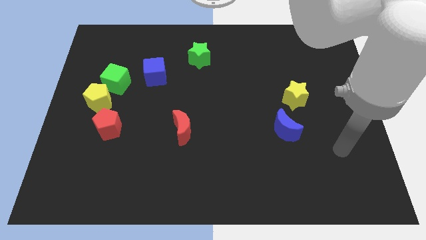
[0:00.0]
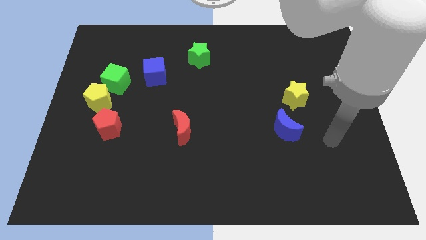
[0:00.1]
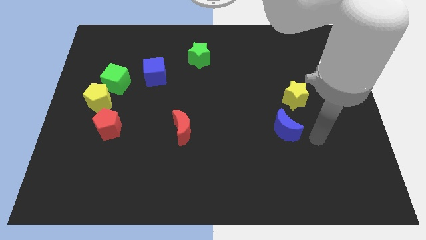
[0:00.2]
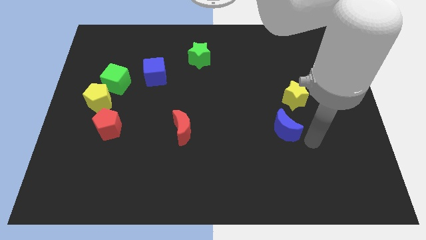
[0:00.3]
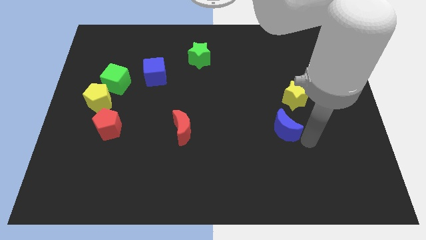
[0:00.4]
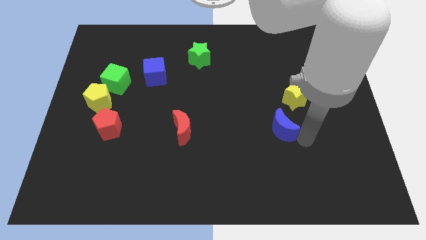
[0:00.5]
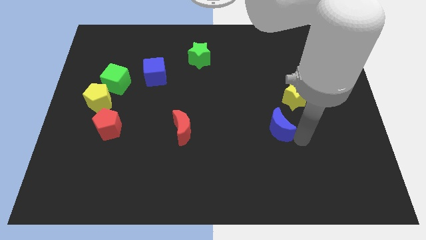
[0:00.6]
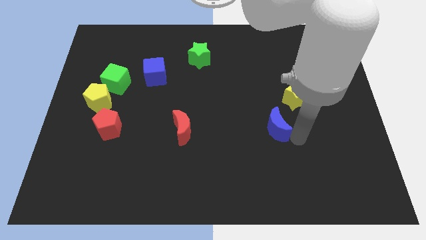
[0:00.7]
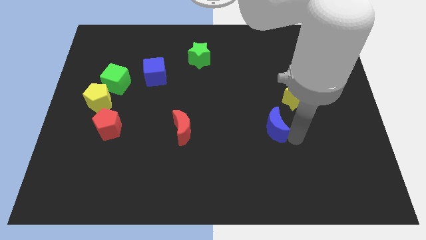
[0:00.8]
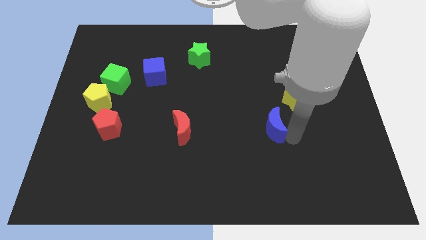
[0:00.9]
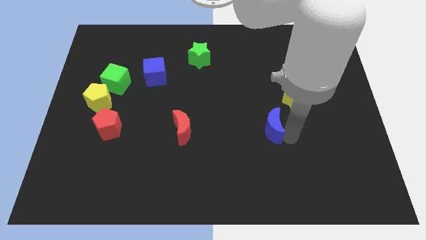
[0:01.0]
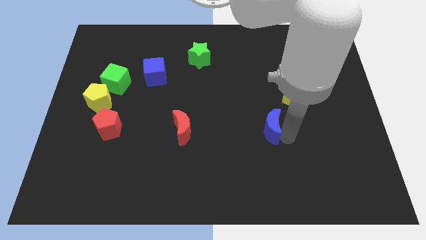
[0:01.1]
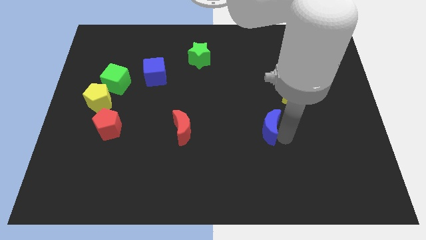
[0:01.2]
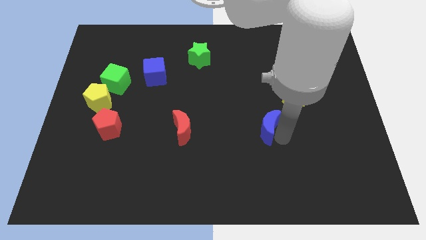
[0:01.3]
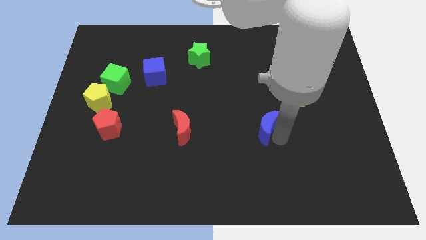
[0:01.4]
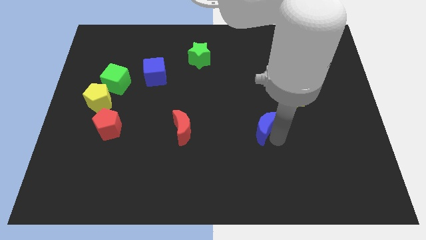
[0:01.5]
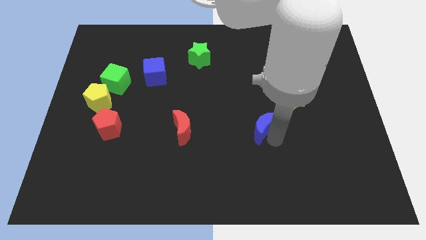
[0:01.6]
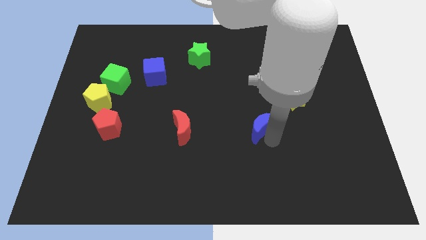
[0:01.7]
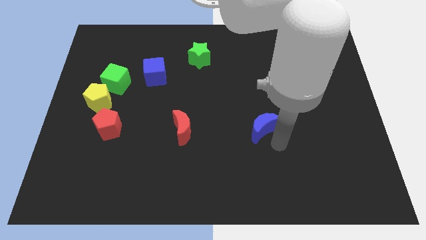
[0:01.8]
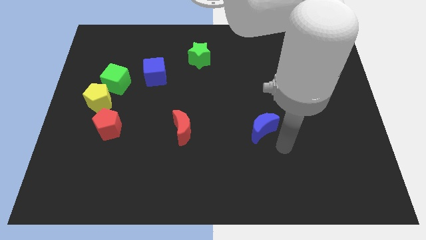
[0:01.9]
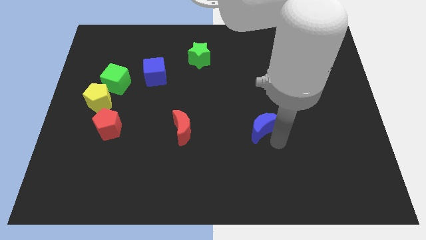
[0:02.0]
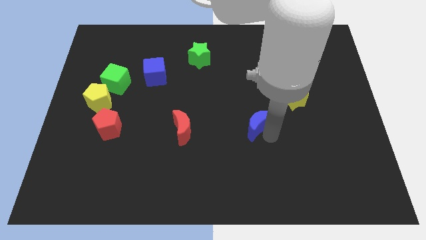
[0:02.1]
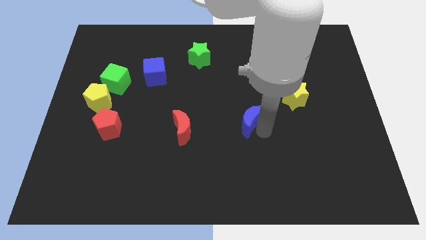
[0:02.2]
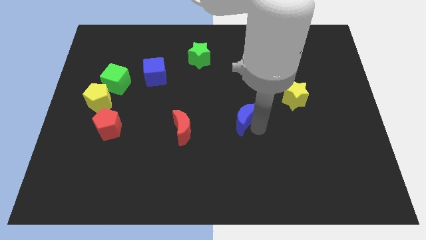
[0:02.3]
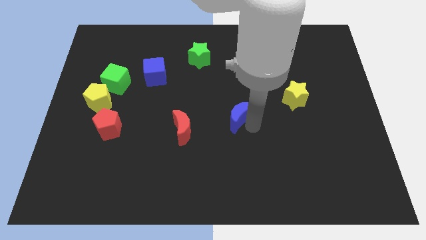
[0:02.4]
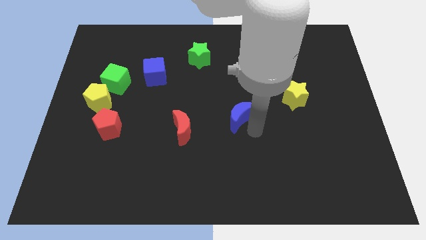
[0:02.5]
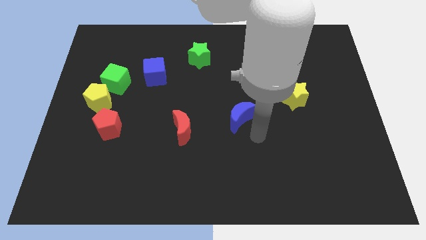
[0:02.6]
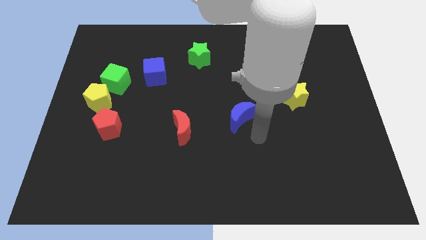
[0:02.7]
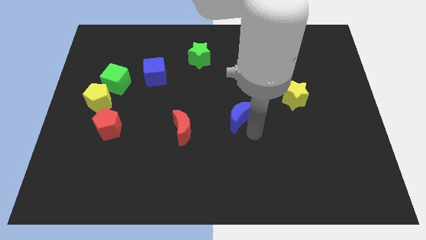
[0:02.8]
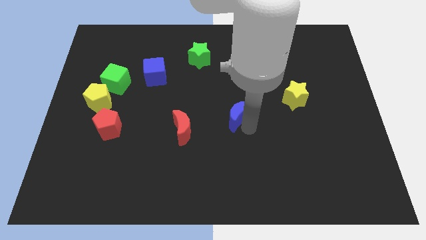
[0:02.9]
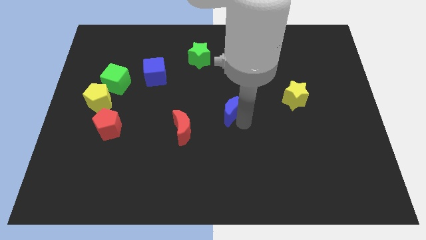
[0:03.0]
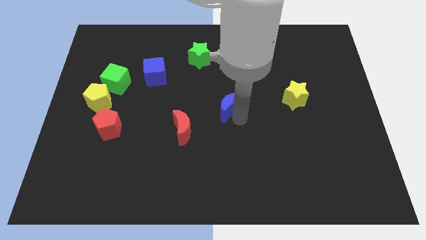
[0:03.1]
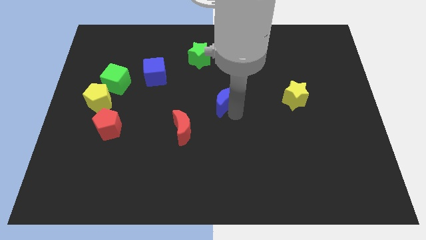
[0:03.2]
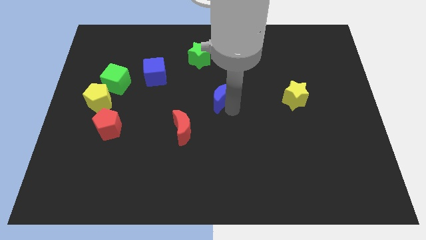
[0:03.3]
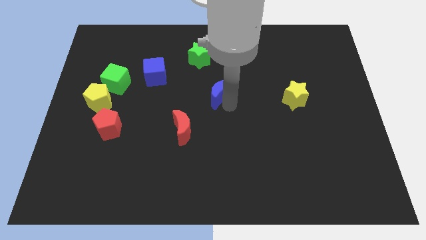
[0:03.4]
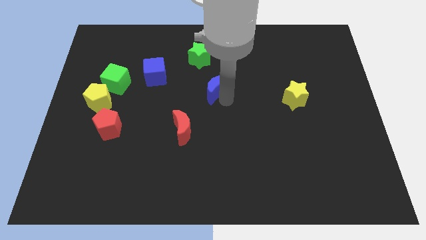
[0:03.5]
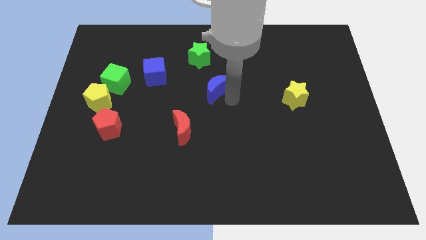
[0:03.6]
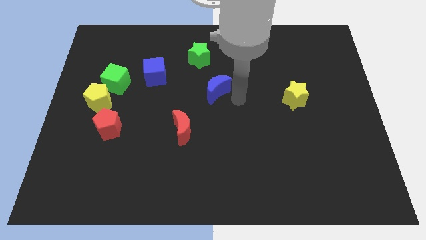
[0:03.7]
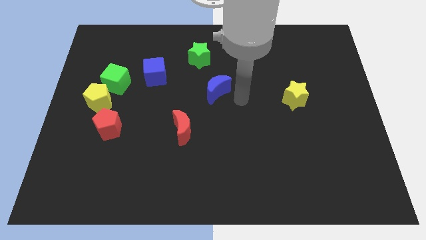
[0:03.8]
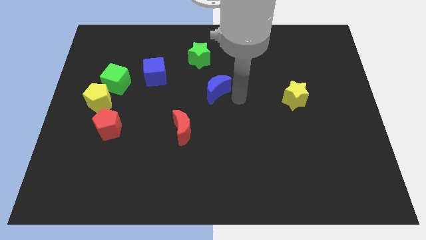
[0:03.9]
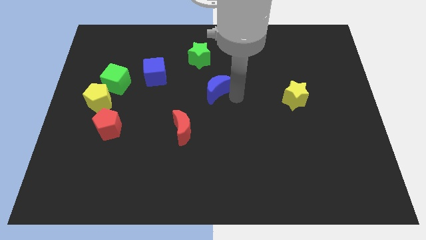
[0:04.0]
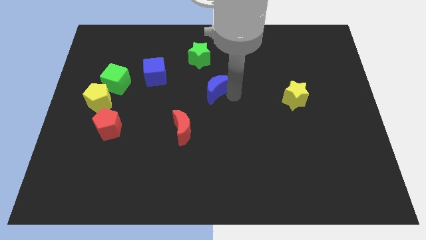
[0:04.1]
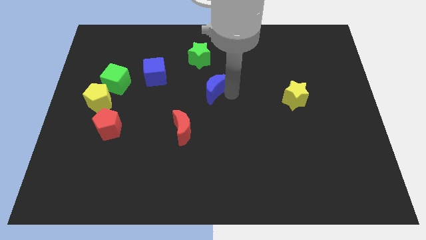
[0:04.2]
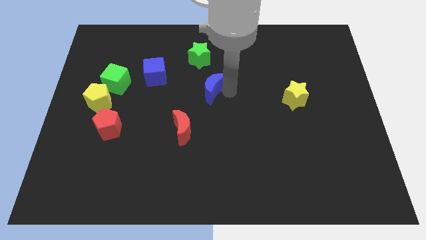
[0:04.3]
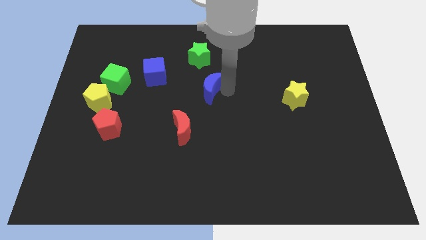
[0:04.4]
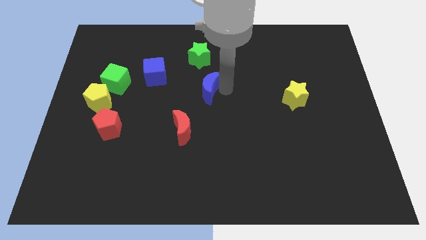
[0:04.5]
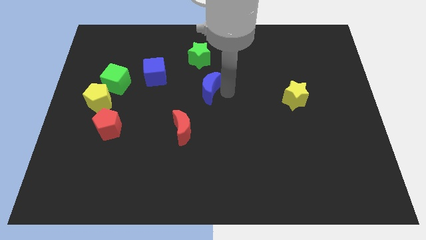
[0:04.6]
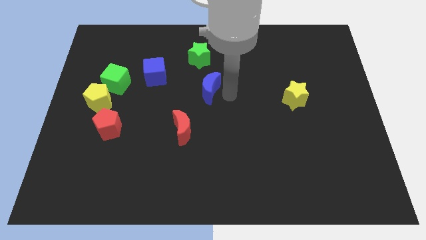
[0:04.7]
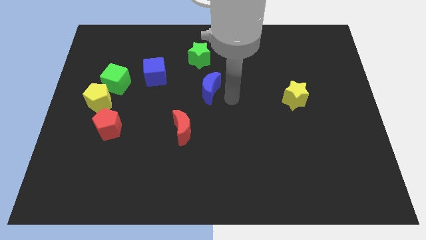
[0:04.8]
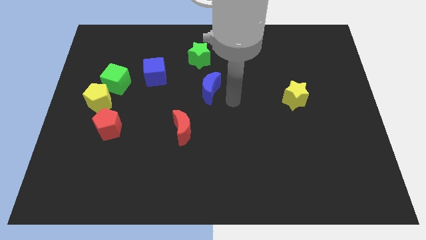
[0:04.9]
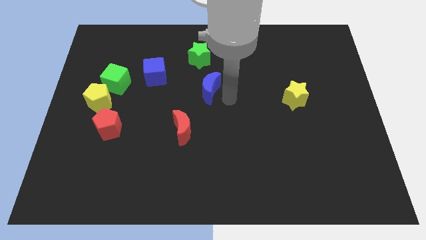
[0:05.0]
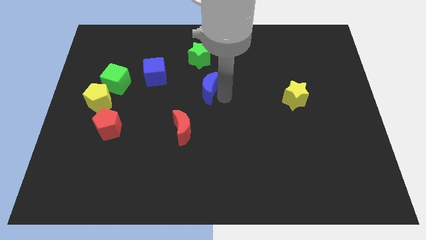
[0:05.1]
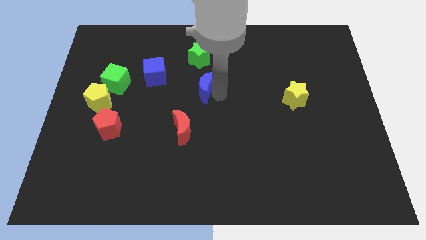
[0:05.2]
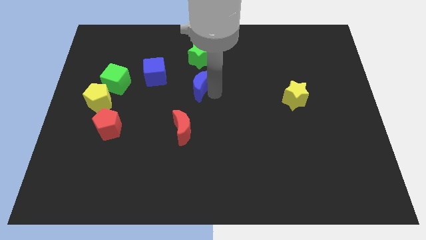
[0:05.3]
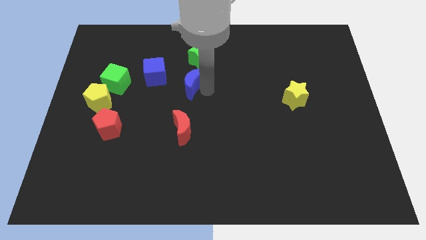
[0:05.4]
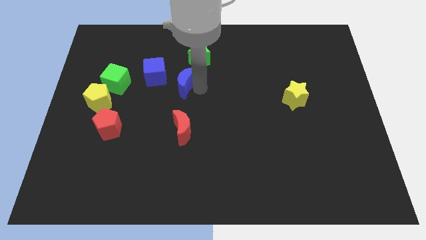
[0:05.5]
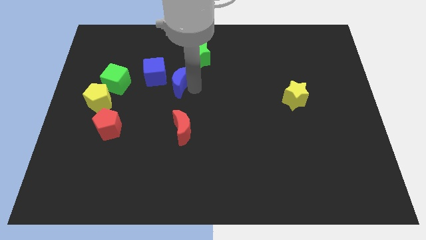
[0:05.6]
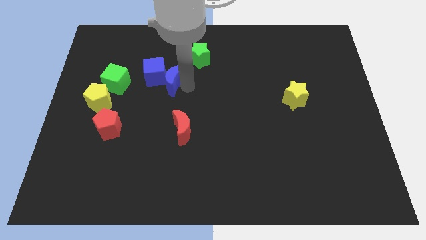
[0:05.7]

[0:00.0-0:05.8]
slide the blue moon close to the blue cube
